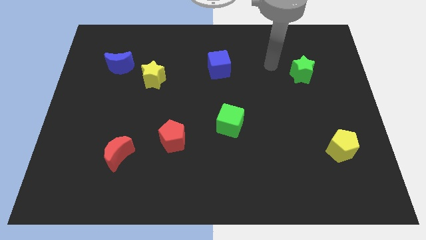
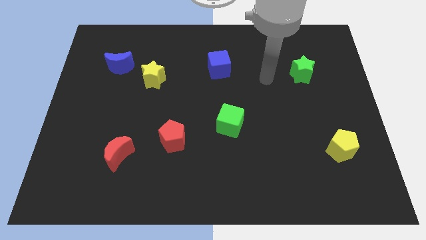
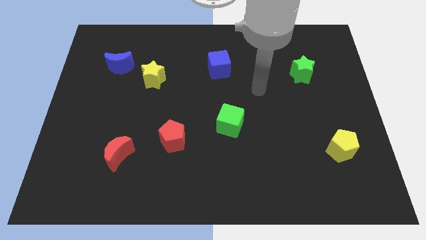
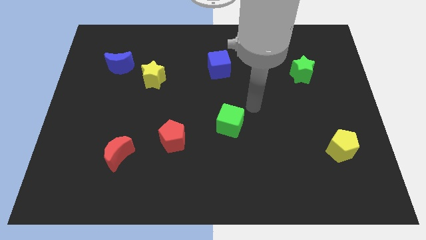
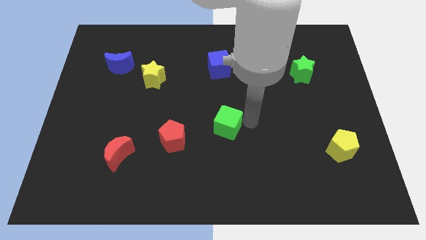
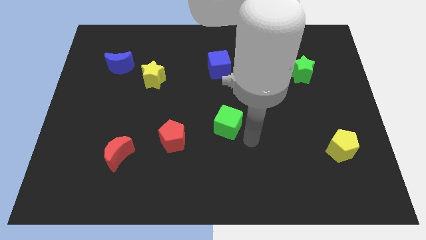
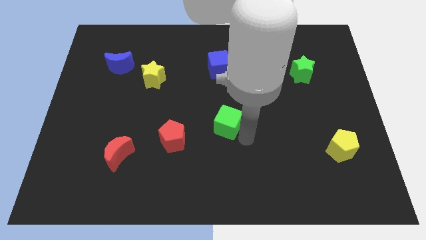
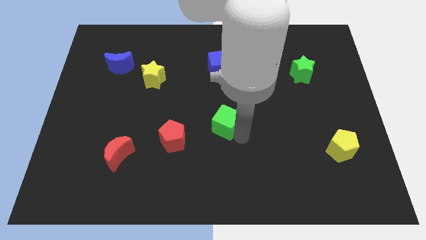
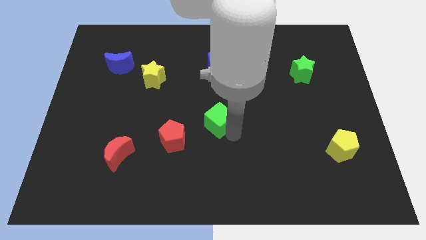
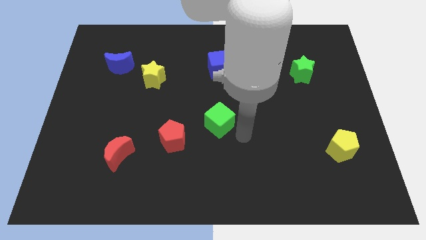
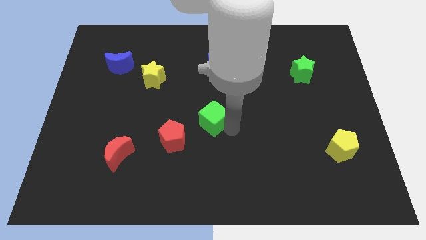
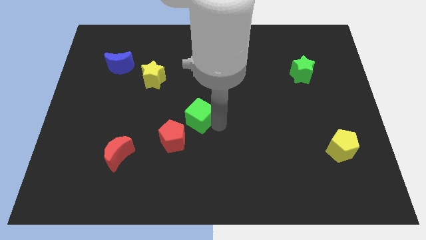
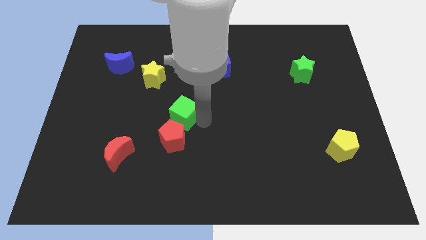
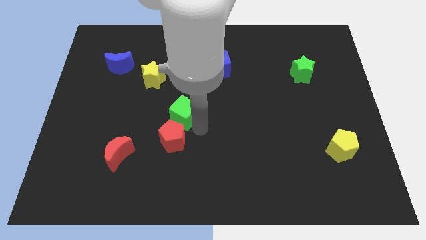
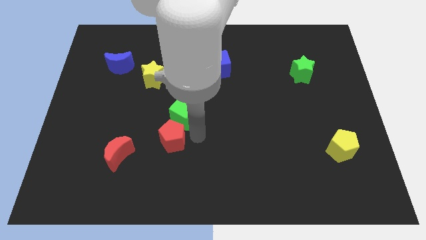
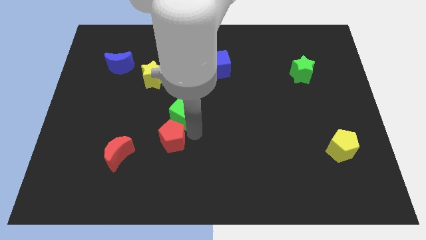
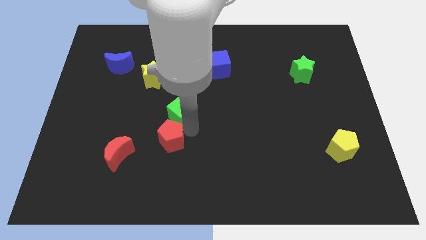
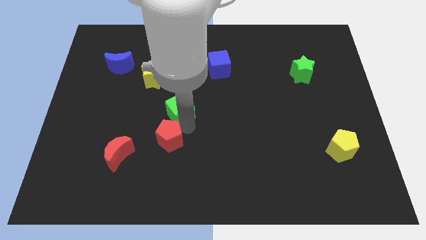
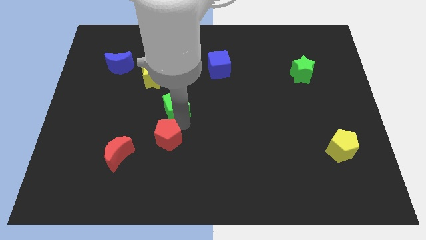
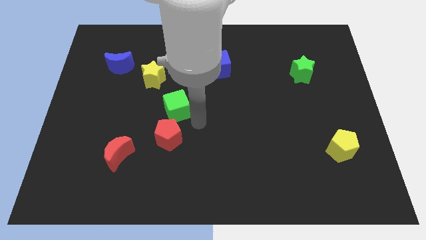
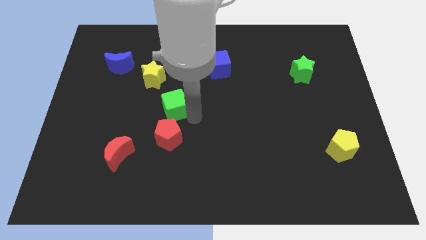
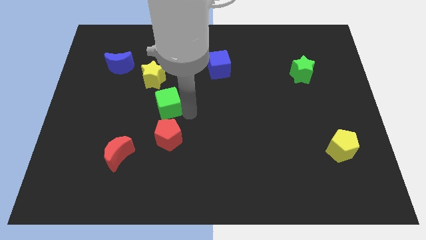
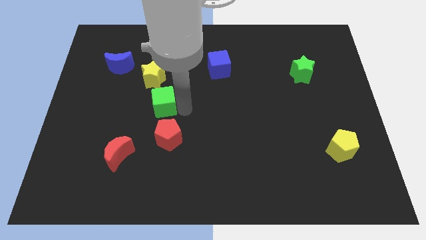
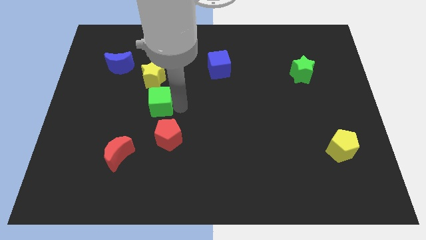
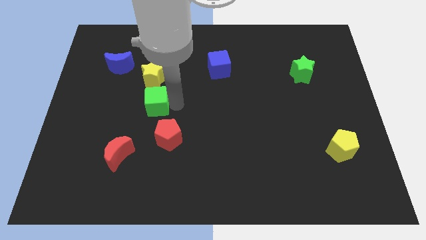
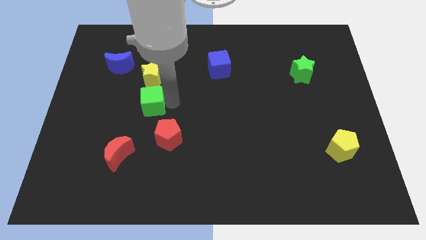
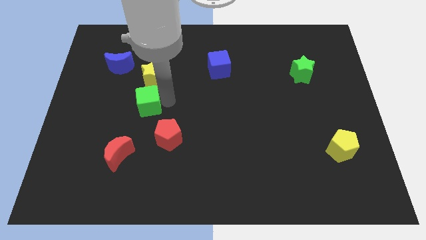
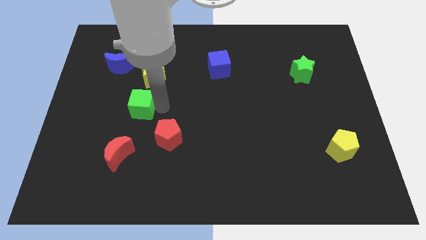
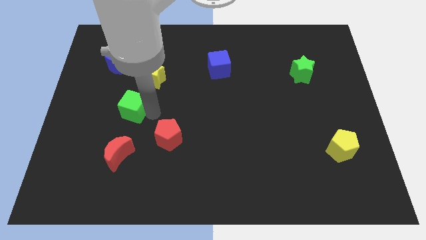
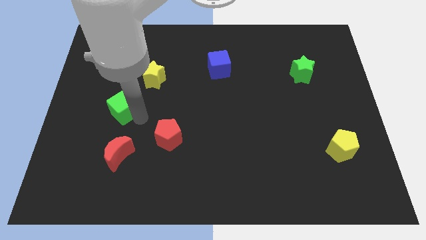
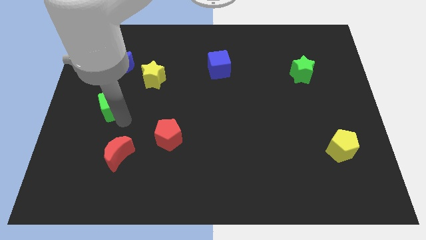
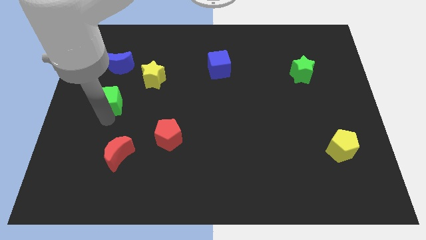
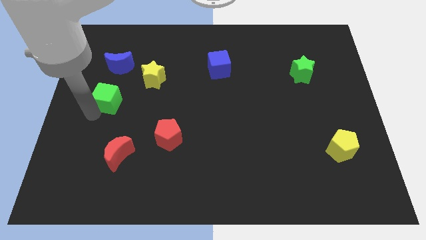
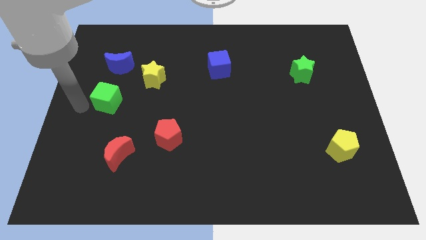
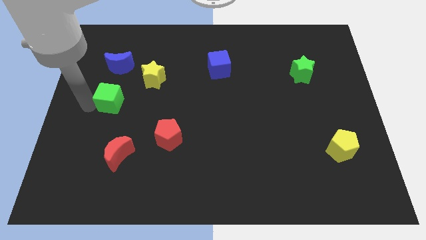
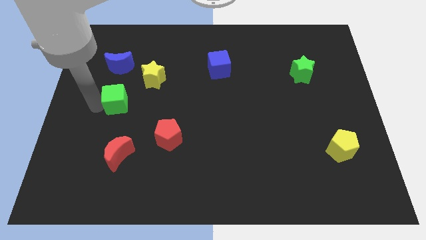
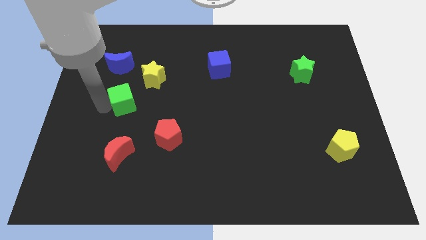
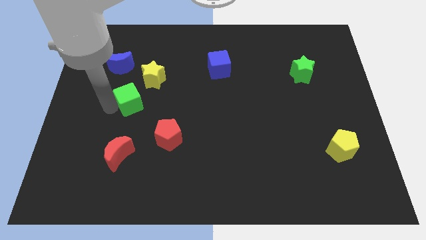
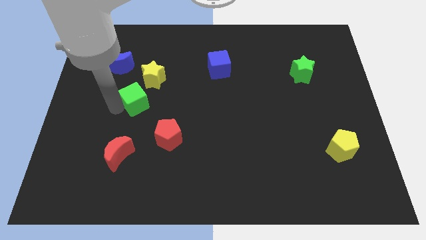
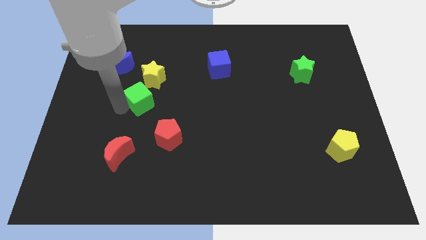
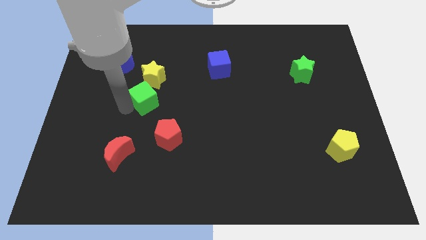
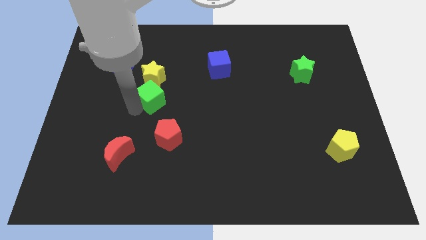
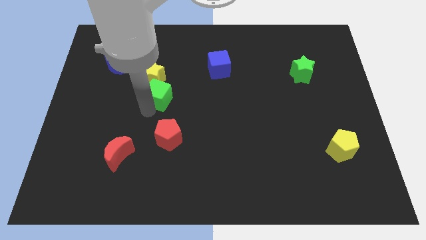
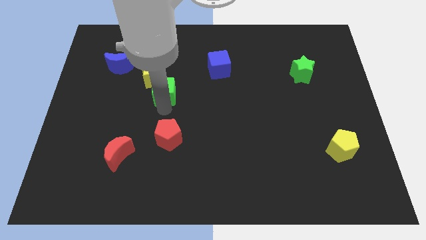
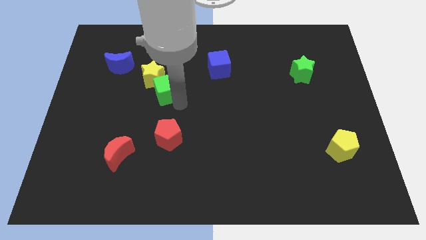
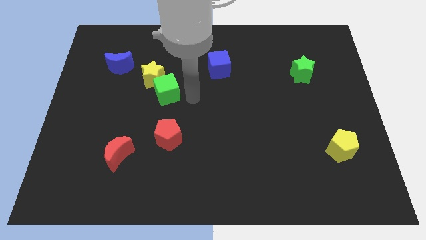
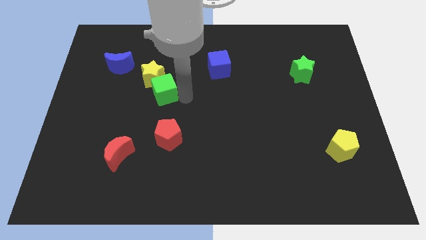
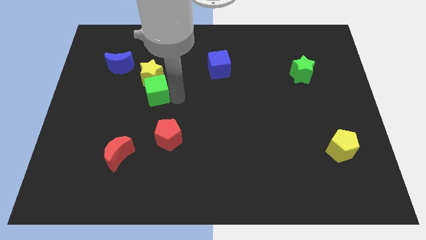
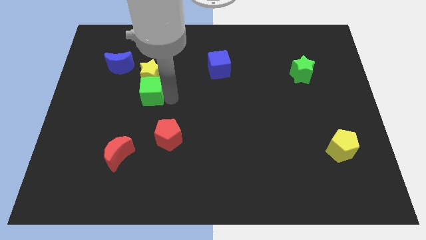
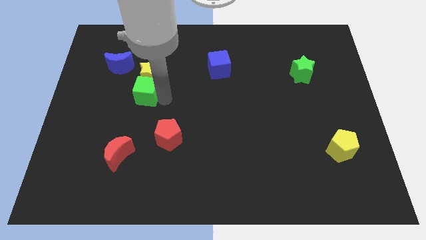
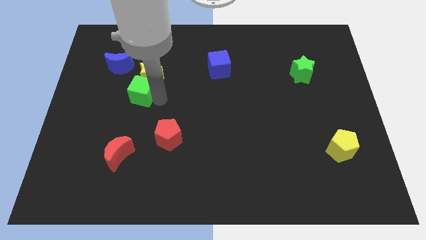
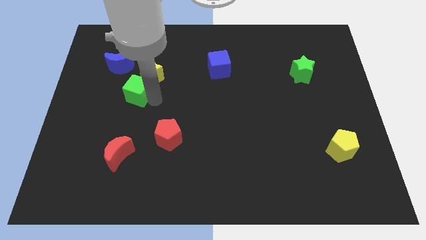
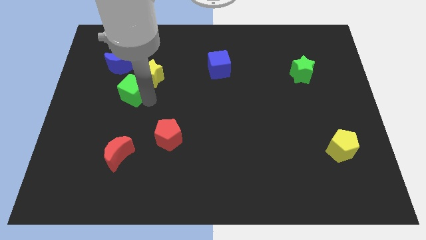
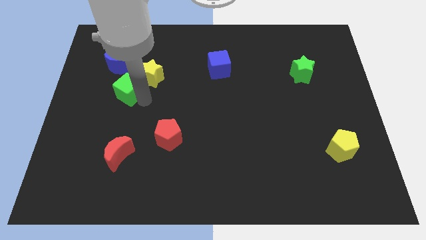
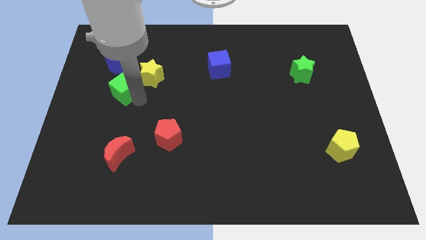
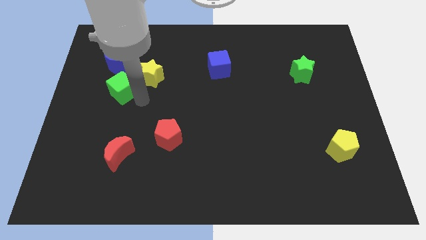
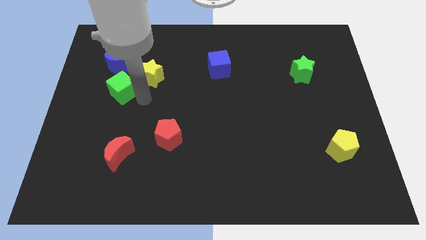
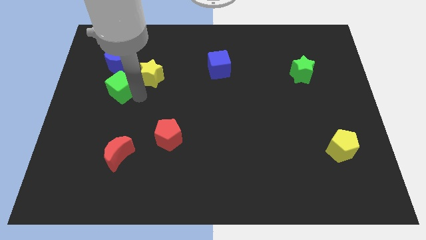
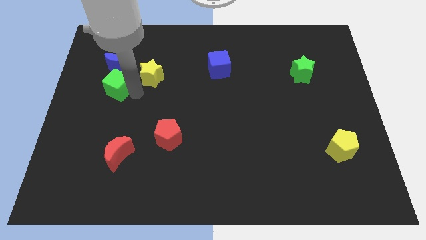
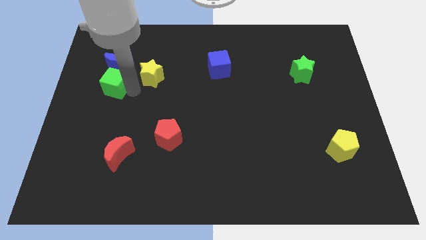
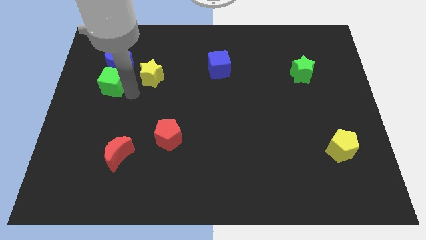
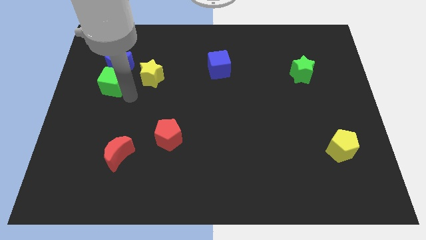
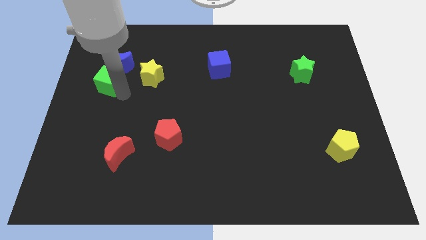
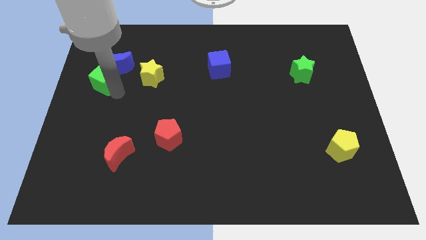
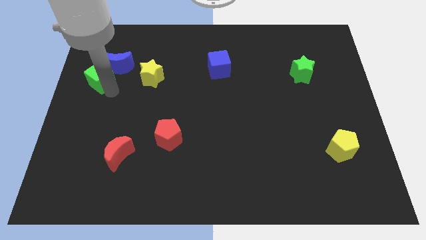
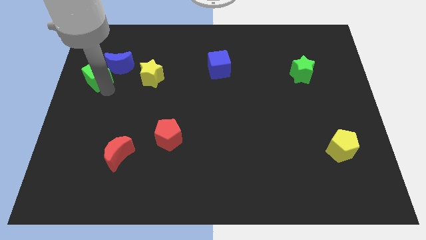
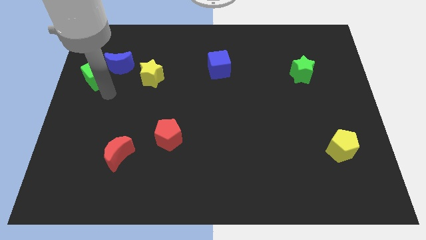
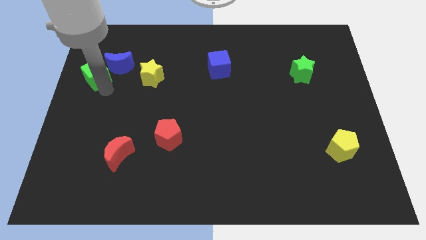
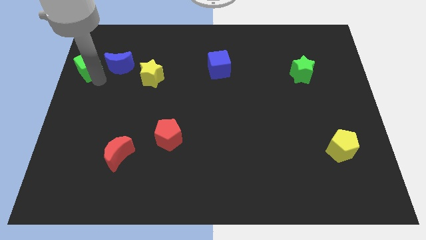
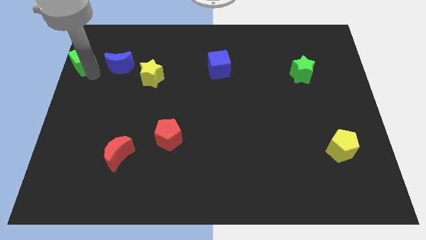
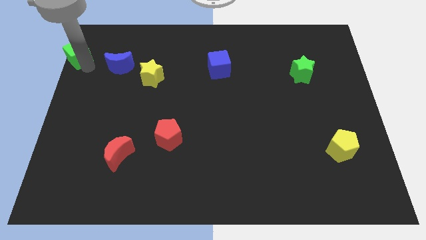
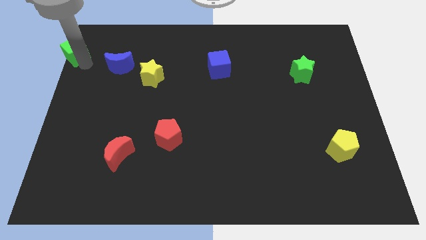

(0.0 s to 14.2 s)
slide the green cube to the upper left corner
